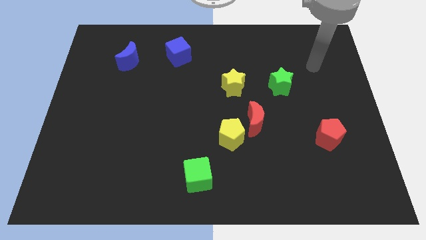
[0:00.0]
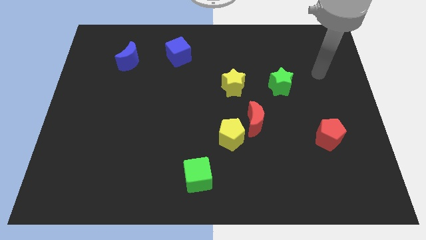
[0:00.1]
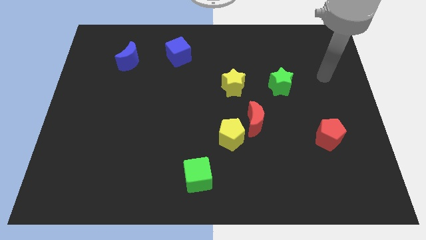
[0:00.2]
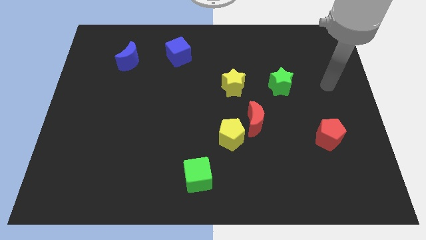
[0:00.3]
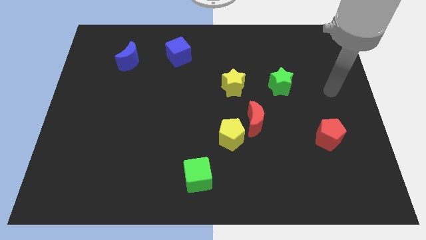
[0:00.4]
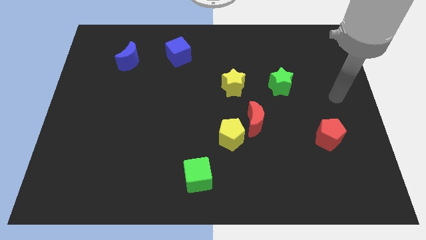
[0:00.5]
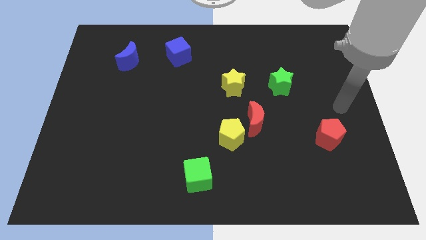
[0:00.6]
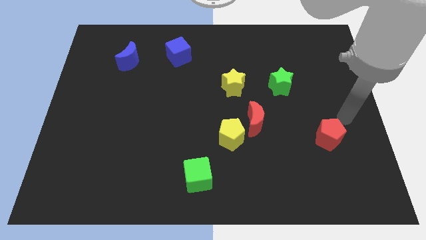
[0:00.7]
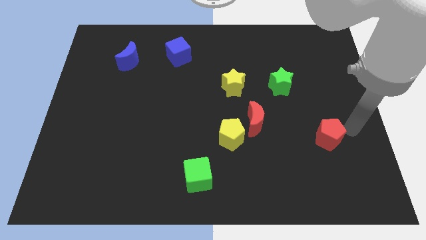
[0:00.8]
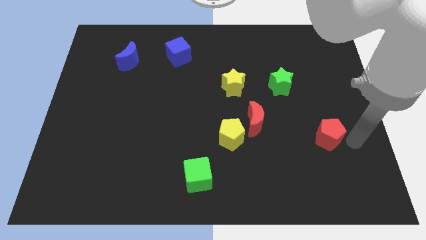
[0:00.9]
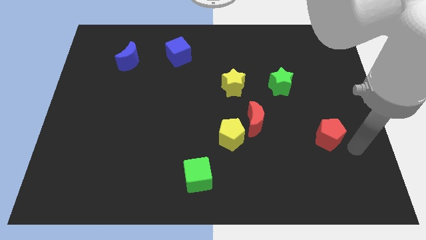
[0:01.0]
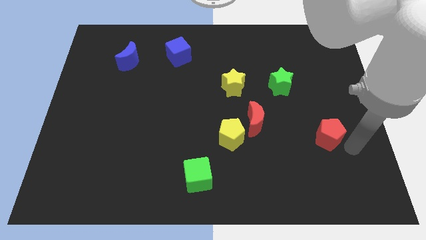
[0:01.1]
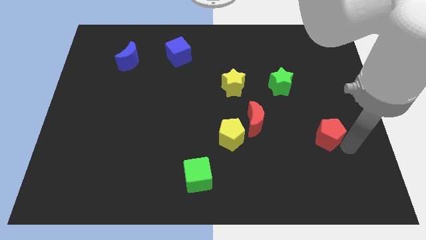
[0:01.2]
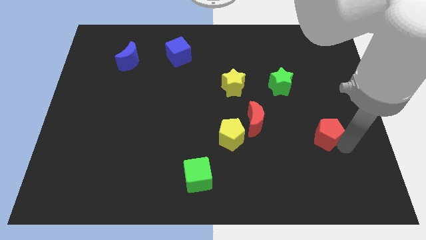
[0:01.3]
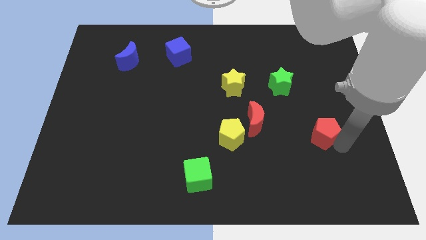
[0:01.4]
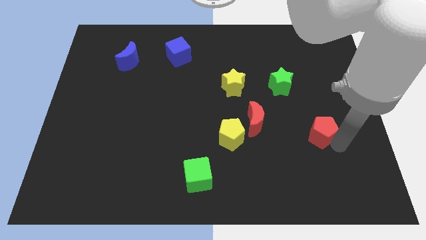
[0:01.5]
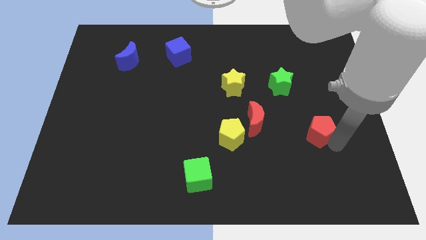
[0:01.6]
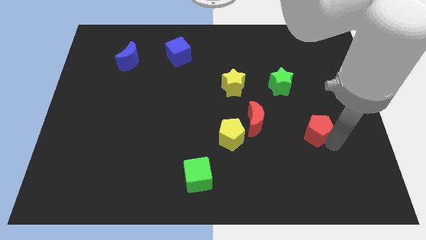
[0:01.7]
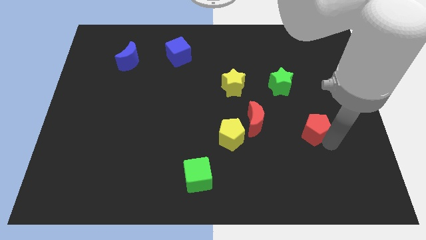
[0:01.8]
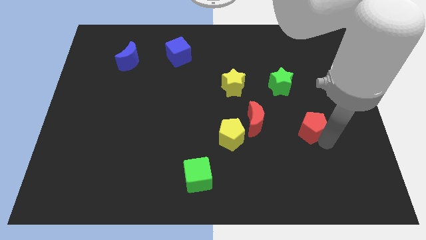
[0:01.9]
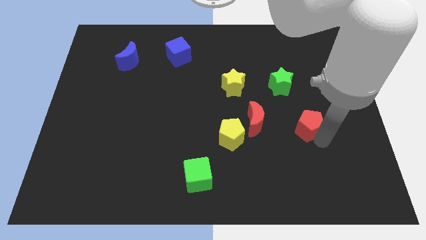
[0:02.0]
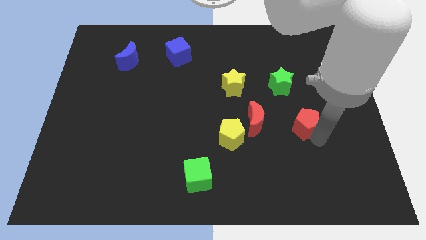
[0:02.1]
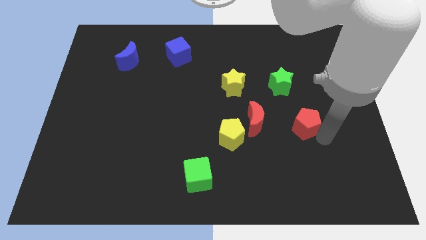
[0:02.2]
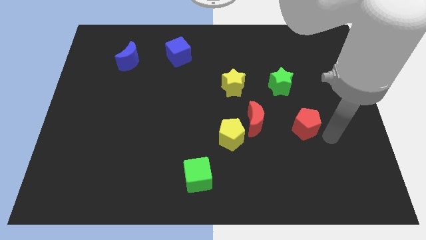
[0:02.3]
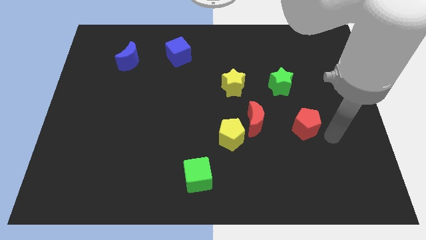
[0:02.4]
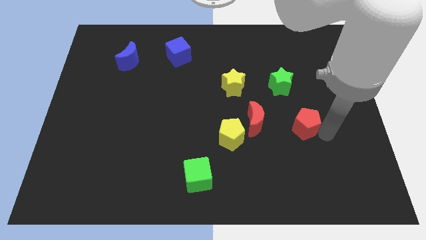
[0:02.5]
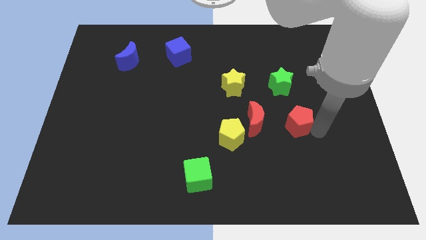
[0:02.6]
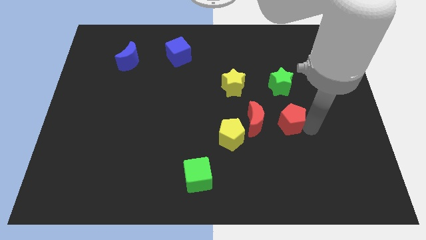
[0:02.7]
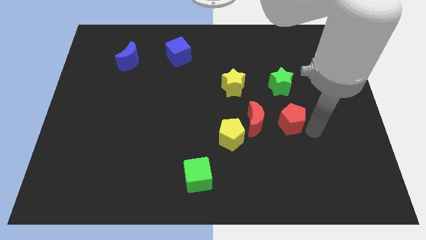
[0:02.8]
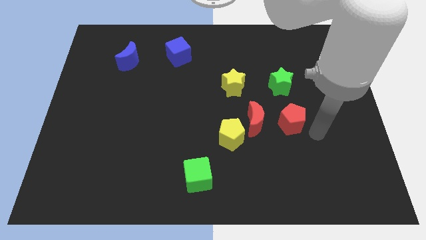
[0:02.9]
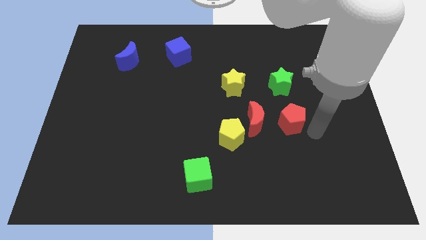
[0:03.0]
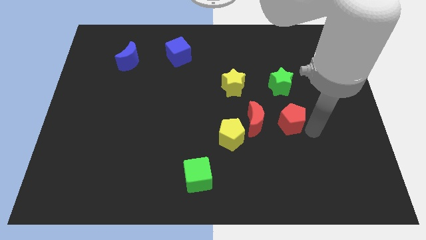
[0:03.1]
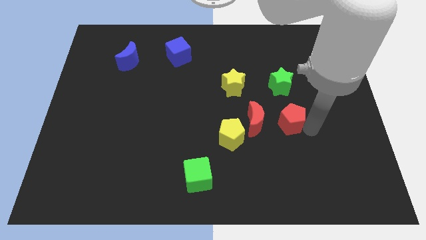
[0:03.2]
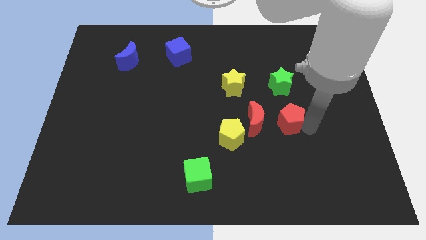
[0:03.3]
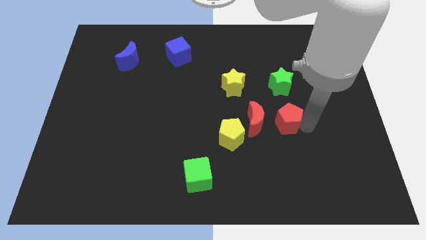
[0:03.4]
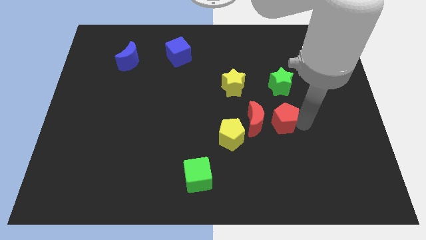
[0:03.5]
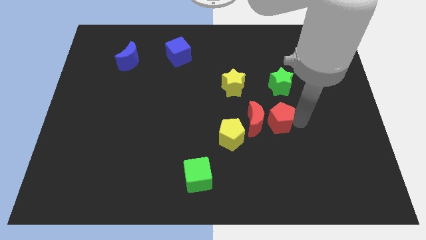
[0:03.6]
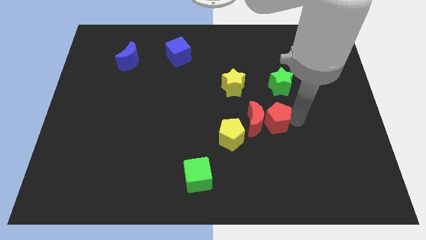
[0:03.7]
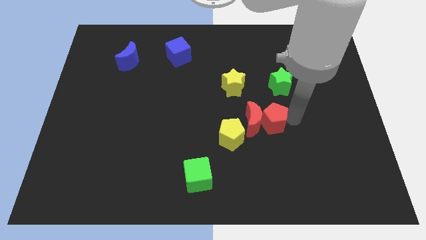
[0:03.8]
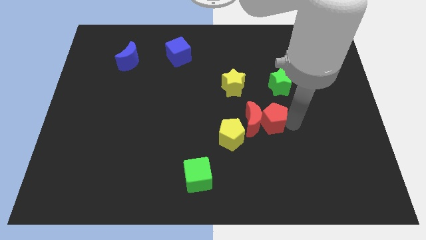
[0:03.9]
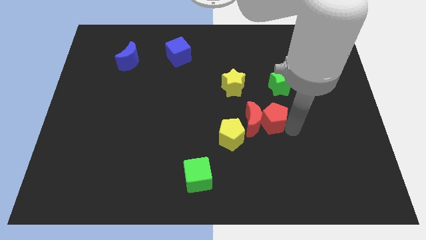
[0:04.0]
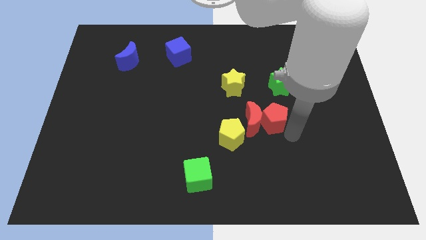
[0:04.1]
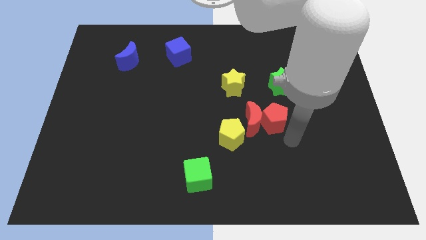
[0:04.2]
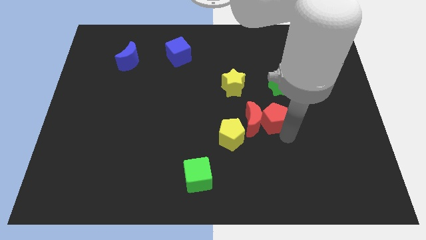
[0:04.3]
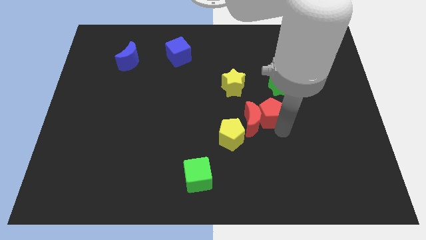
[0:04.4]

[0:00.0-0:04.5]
move the red pentagon to the bottom right of the yellow star

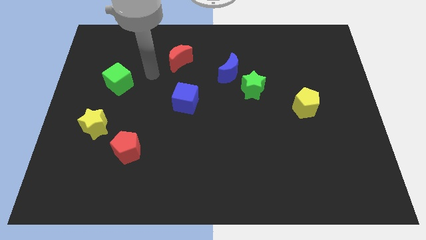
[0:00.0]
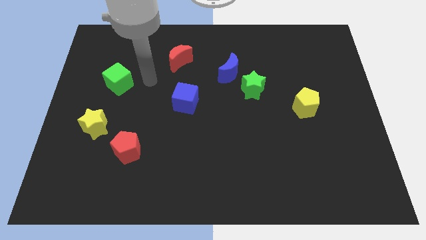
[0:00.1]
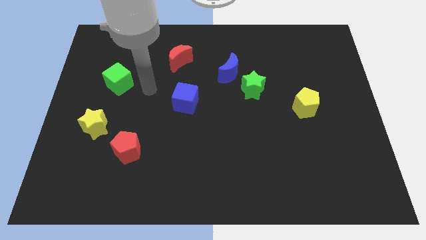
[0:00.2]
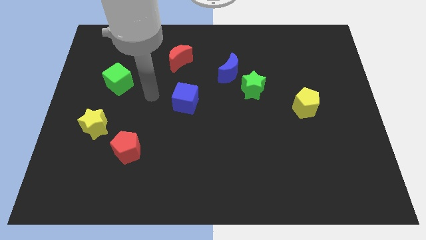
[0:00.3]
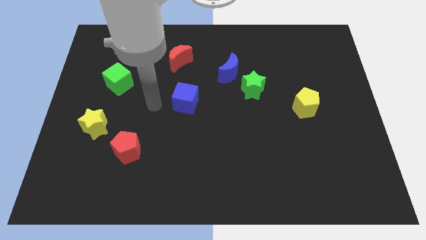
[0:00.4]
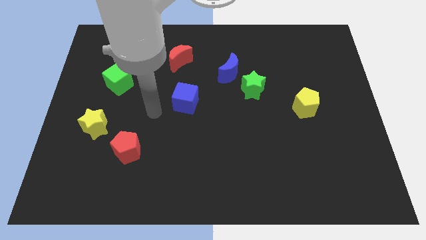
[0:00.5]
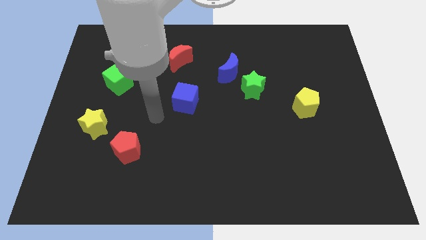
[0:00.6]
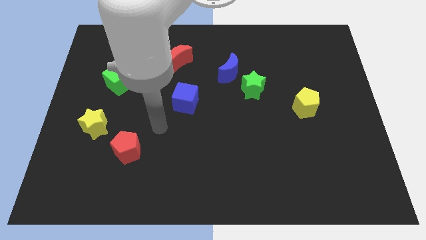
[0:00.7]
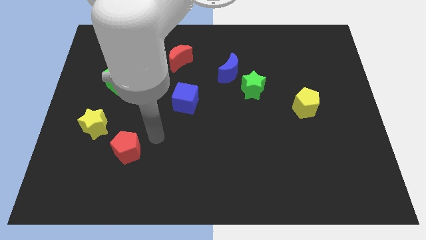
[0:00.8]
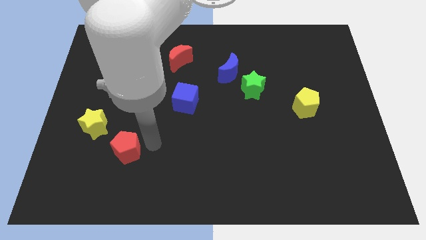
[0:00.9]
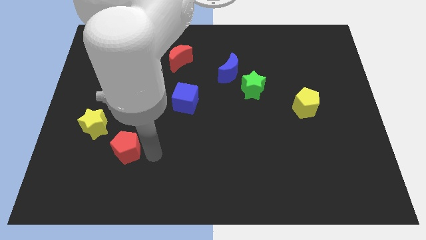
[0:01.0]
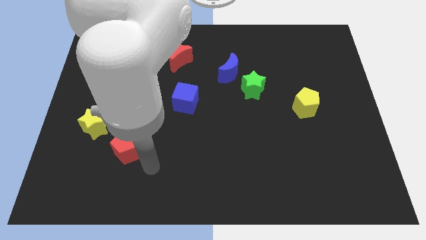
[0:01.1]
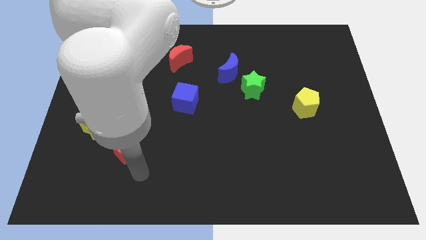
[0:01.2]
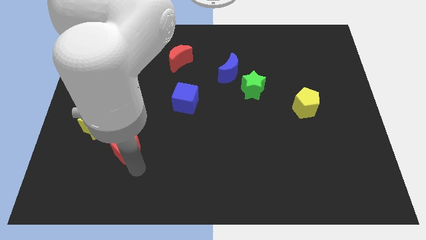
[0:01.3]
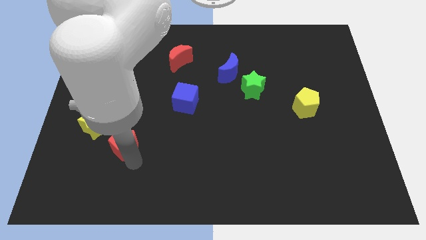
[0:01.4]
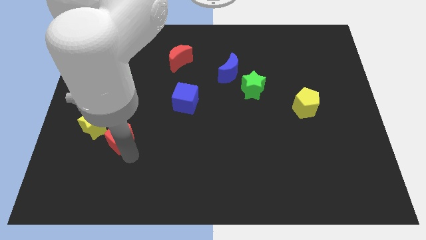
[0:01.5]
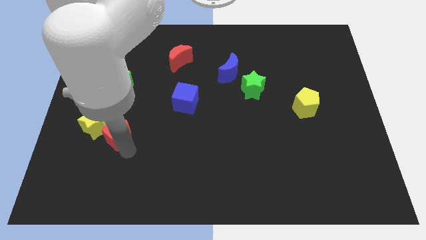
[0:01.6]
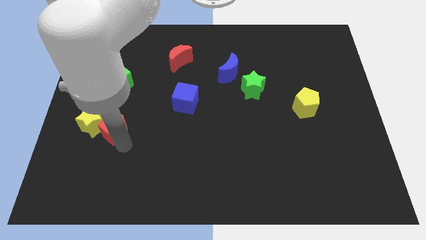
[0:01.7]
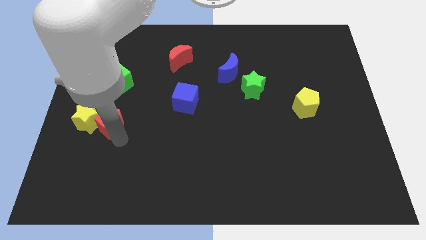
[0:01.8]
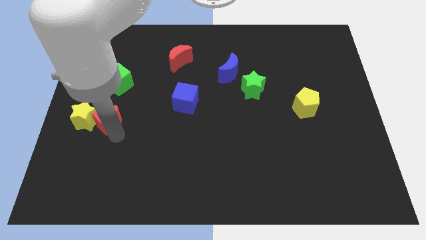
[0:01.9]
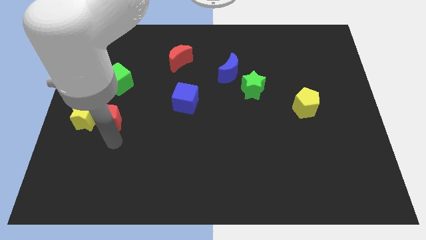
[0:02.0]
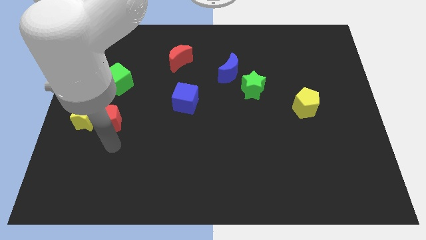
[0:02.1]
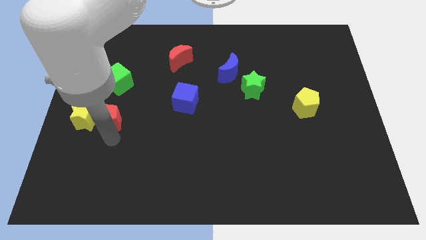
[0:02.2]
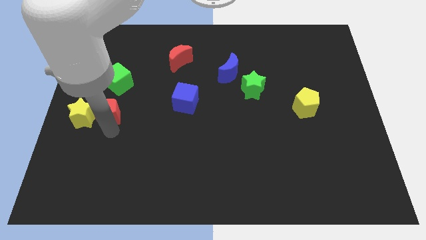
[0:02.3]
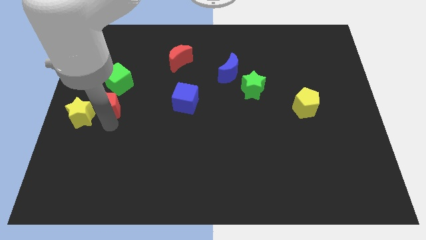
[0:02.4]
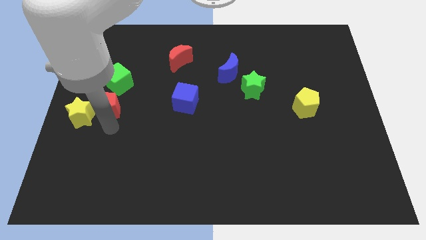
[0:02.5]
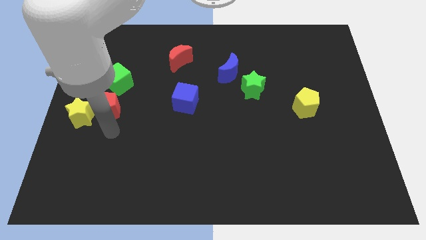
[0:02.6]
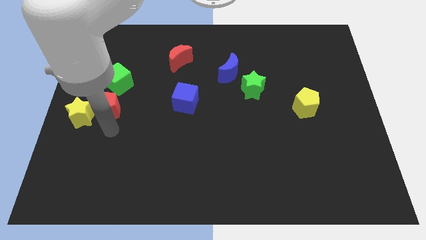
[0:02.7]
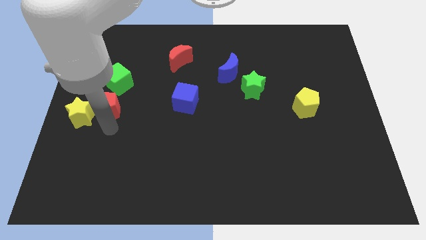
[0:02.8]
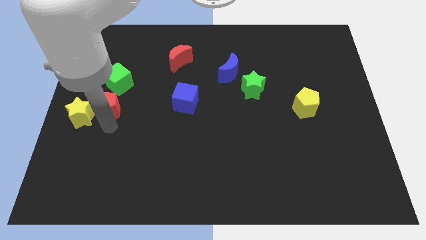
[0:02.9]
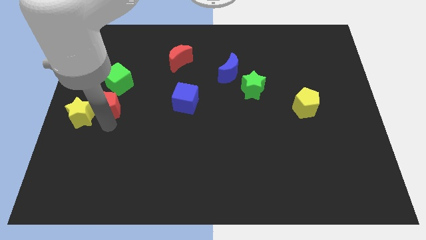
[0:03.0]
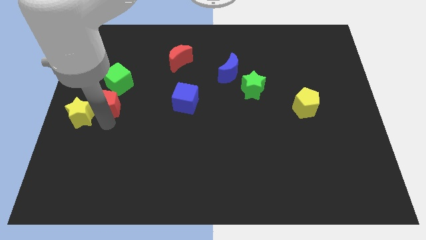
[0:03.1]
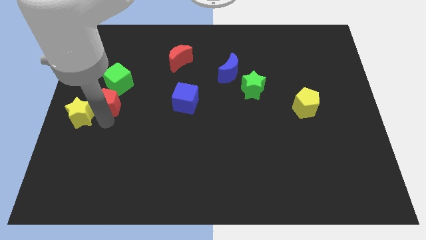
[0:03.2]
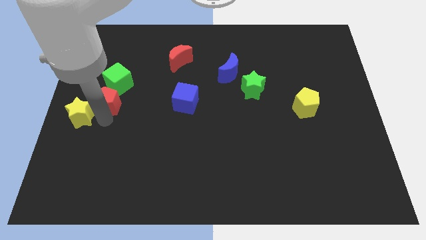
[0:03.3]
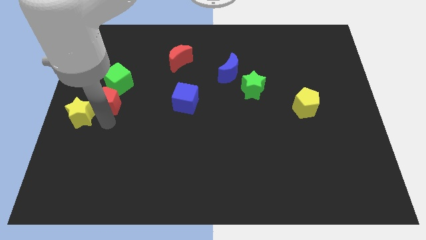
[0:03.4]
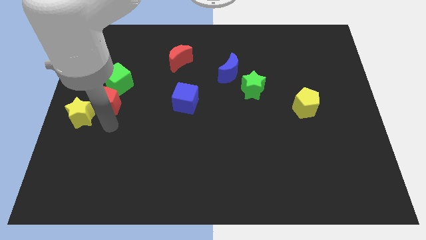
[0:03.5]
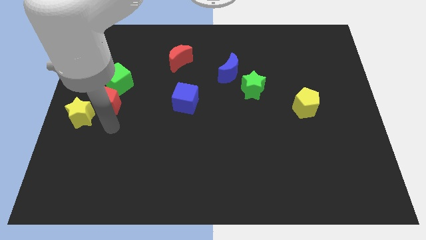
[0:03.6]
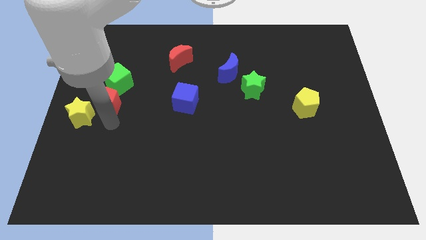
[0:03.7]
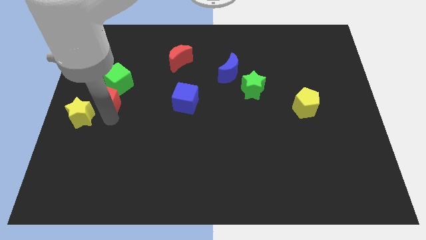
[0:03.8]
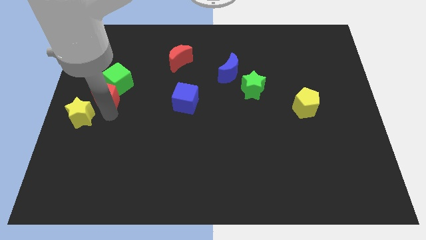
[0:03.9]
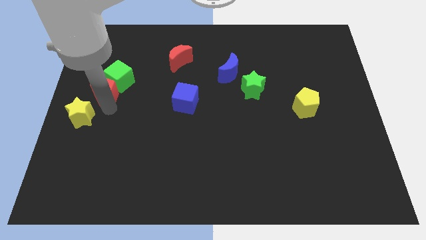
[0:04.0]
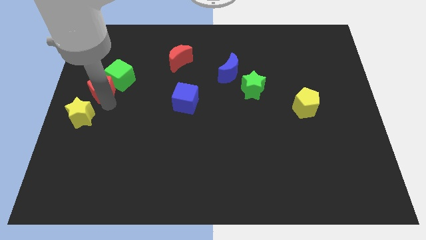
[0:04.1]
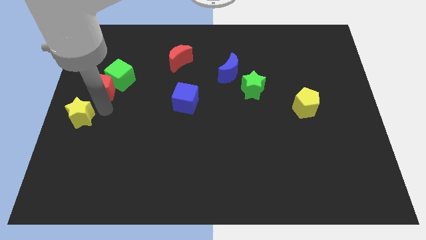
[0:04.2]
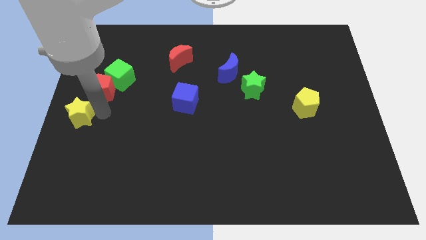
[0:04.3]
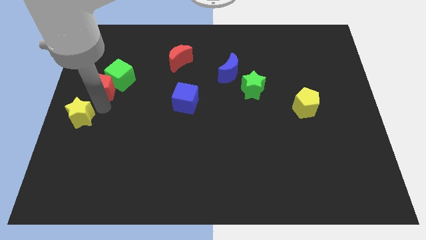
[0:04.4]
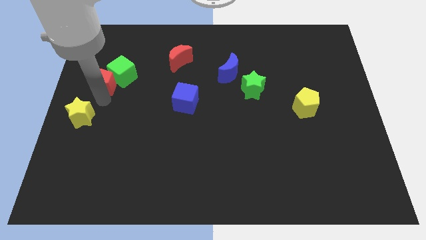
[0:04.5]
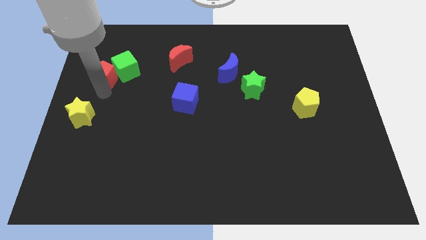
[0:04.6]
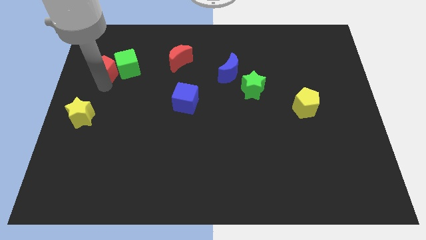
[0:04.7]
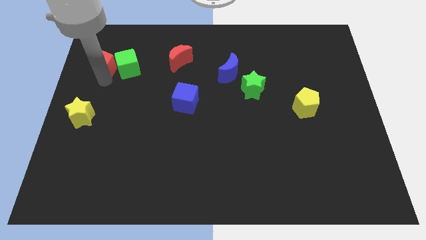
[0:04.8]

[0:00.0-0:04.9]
put the red pentagon to the top left of the green cube
